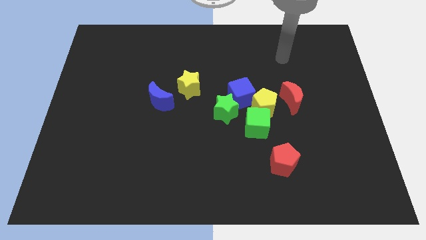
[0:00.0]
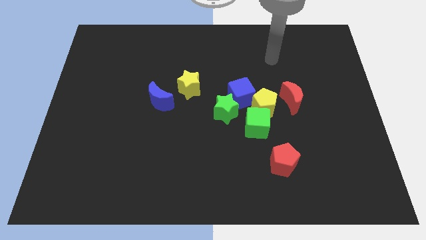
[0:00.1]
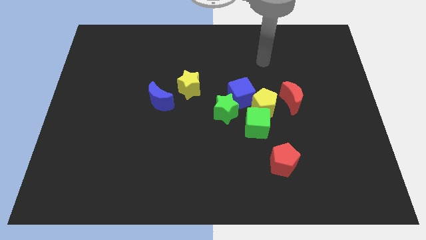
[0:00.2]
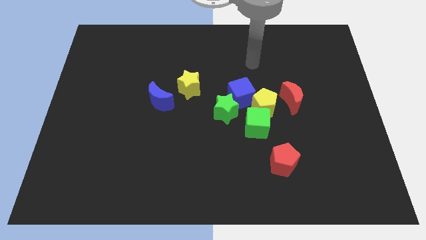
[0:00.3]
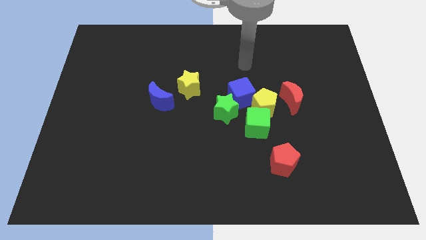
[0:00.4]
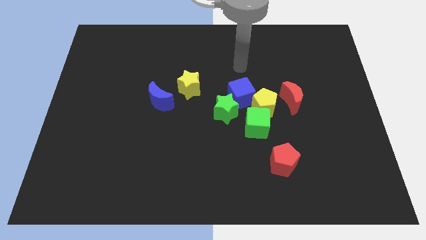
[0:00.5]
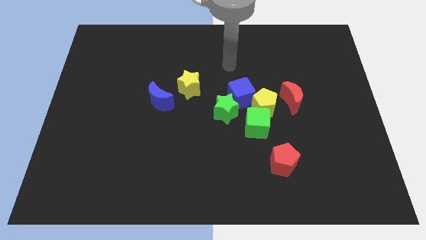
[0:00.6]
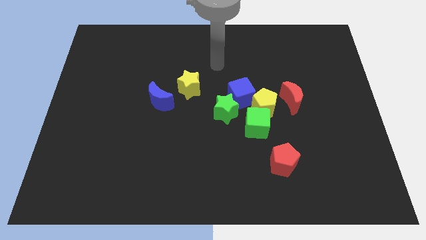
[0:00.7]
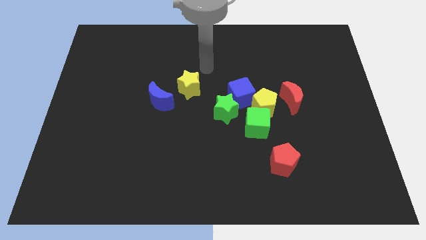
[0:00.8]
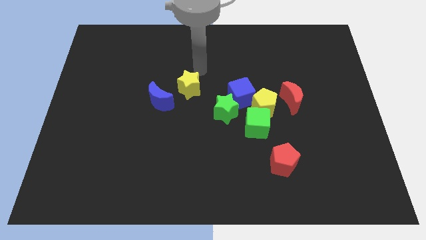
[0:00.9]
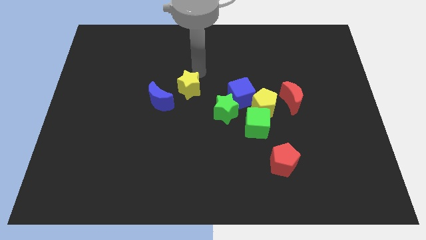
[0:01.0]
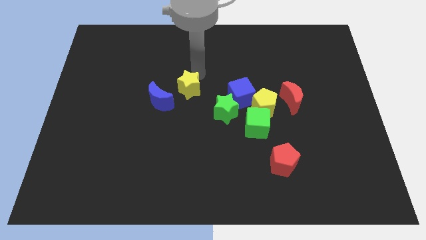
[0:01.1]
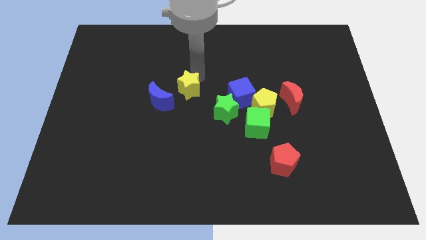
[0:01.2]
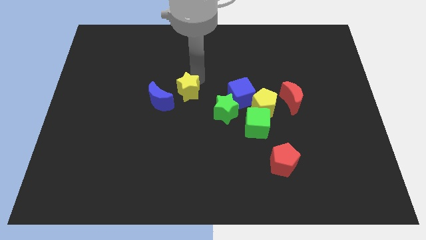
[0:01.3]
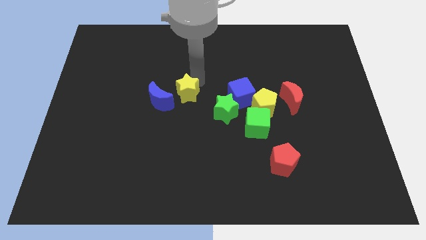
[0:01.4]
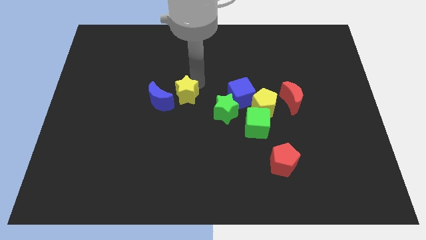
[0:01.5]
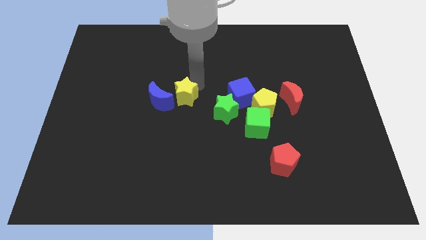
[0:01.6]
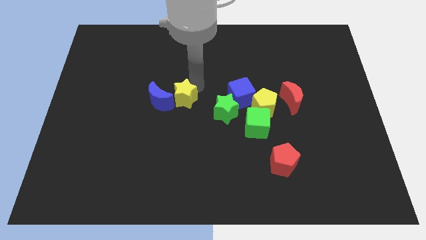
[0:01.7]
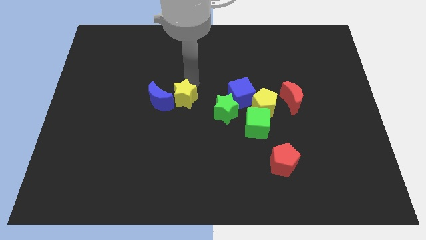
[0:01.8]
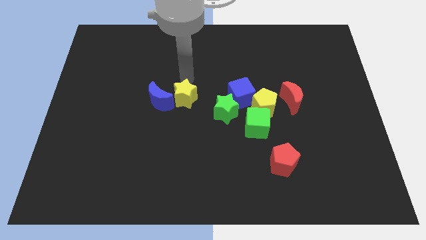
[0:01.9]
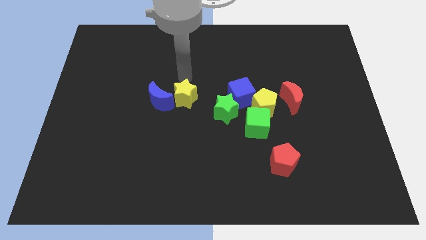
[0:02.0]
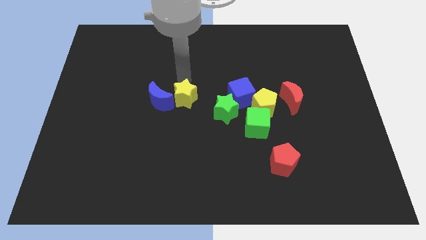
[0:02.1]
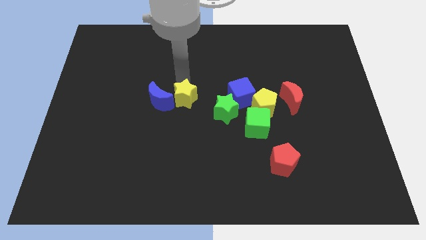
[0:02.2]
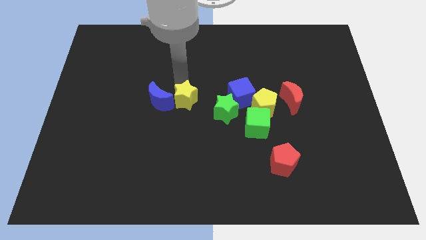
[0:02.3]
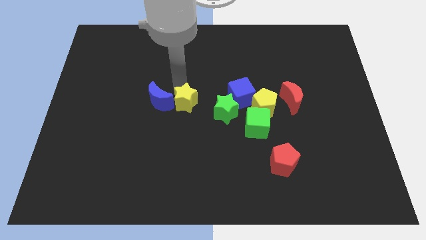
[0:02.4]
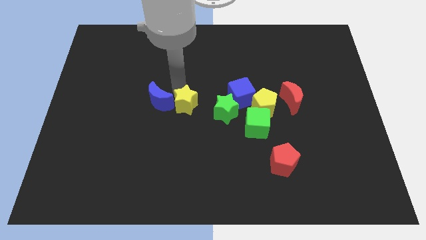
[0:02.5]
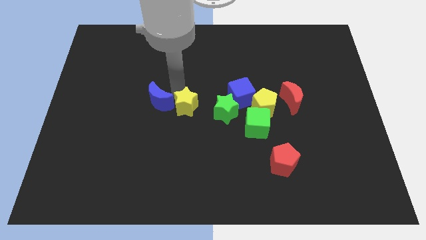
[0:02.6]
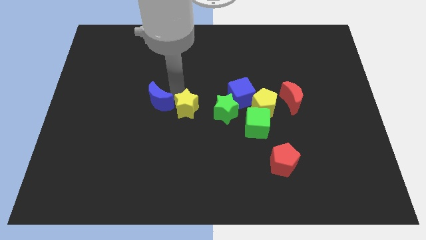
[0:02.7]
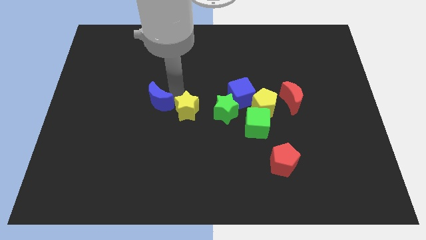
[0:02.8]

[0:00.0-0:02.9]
slide the yellow star somewhat downwards

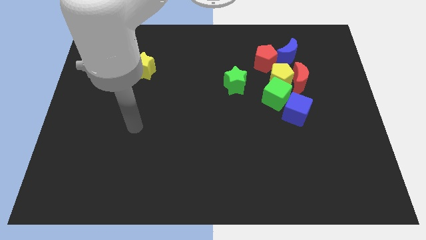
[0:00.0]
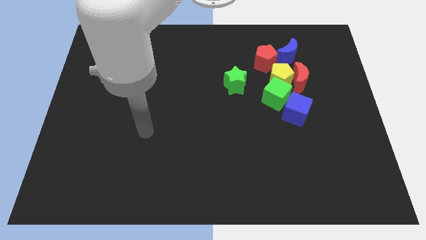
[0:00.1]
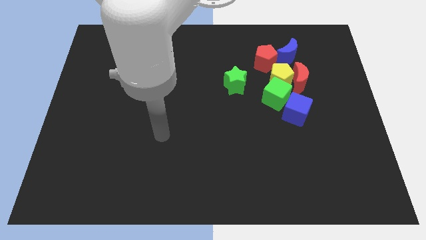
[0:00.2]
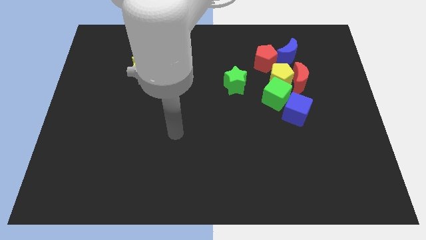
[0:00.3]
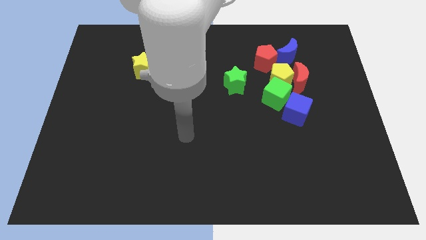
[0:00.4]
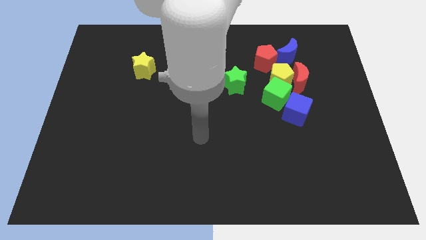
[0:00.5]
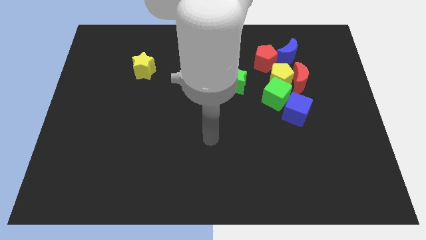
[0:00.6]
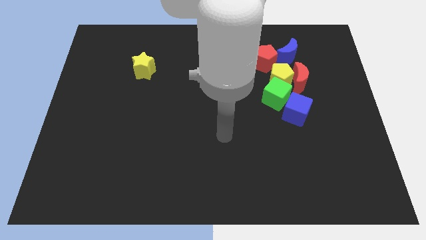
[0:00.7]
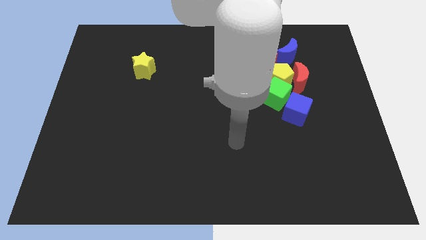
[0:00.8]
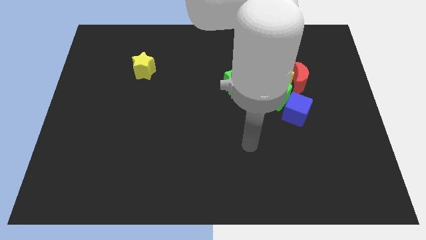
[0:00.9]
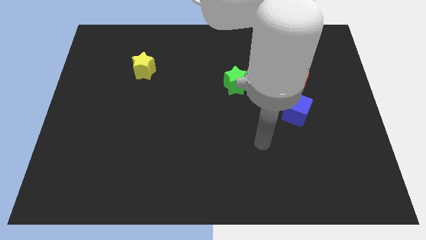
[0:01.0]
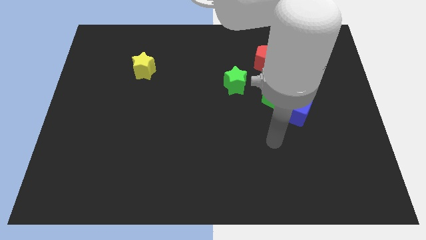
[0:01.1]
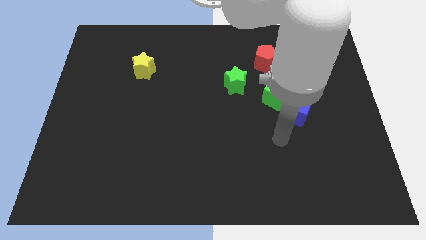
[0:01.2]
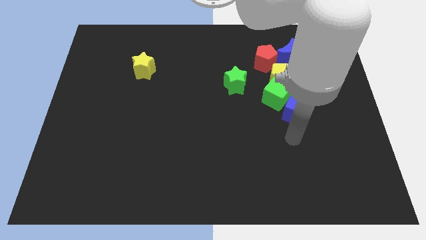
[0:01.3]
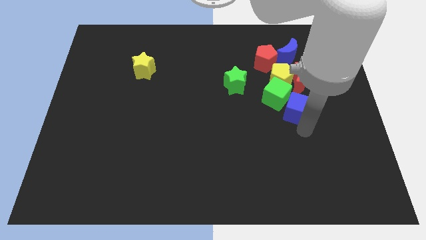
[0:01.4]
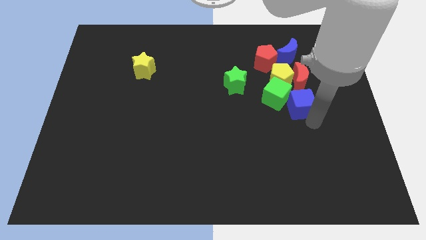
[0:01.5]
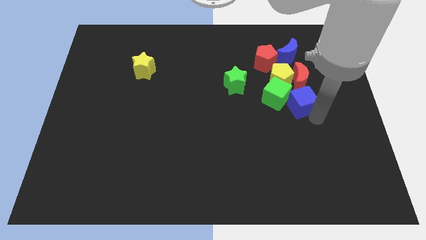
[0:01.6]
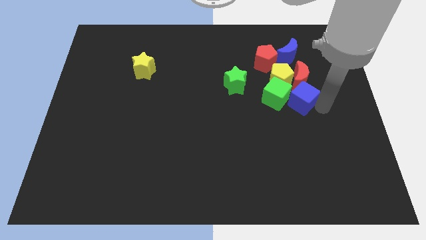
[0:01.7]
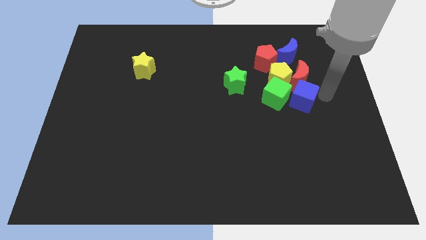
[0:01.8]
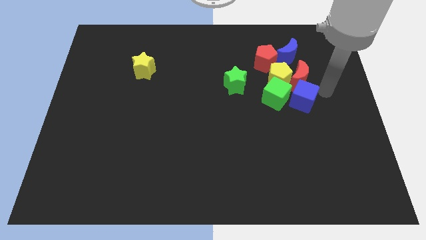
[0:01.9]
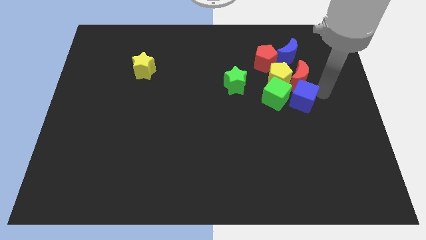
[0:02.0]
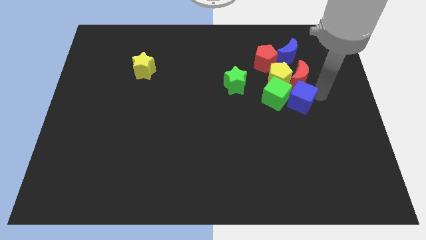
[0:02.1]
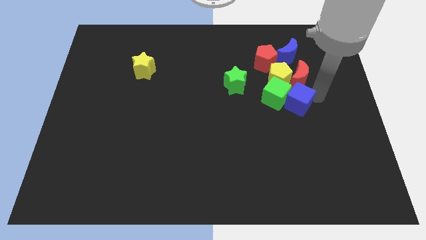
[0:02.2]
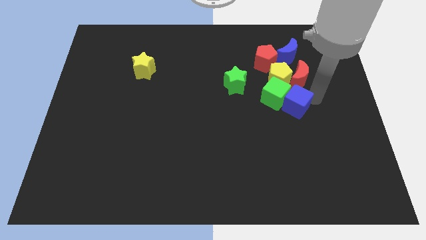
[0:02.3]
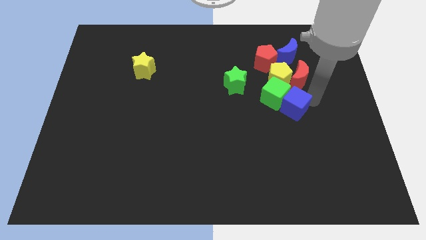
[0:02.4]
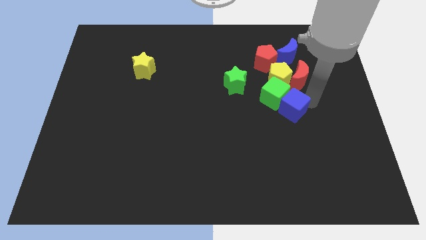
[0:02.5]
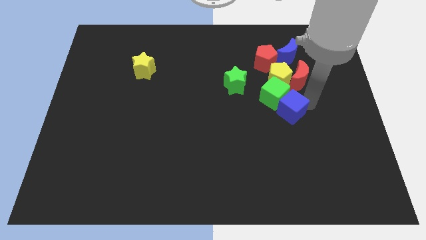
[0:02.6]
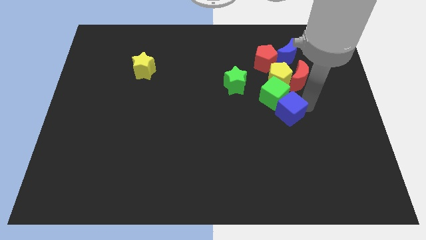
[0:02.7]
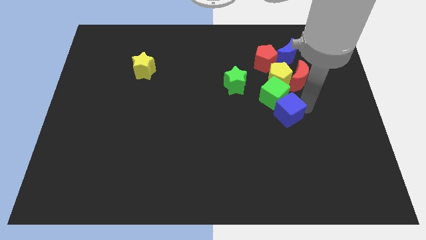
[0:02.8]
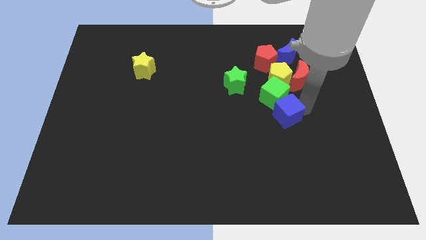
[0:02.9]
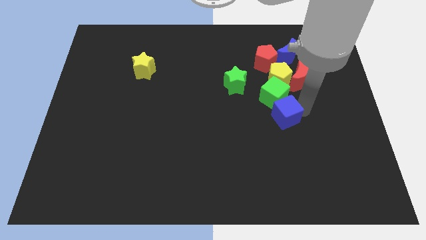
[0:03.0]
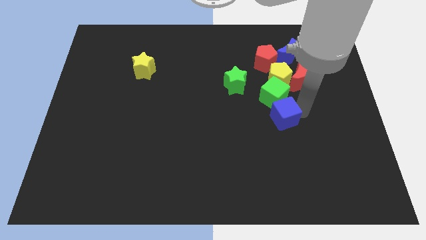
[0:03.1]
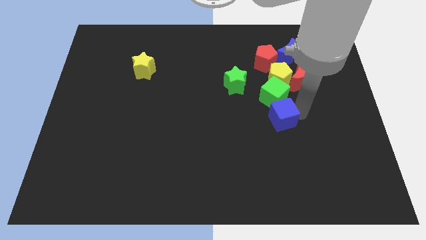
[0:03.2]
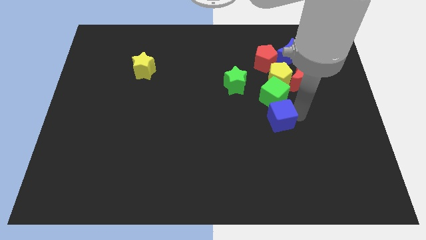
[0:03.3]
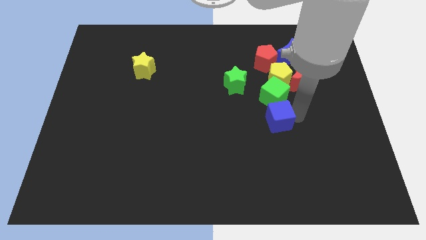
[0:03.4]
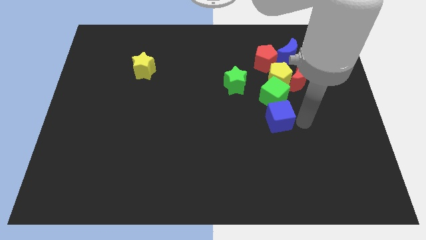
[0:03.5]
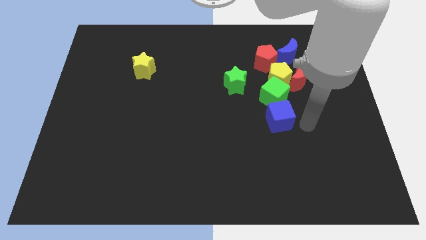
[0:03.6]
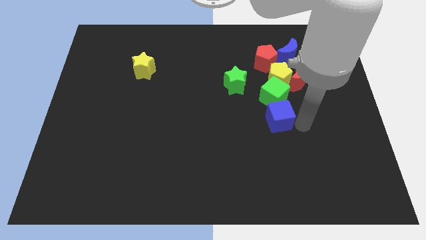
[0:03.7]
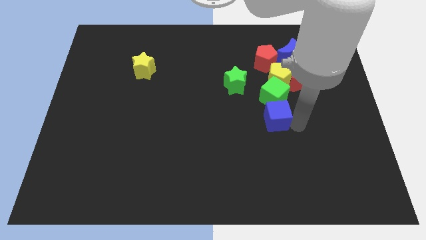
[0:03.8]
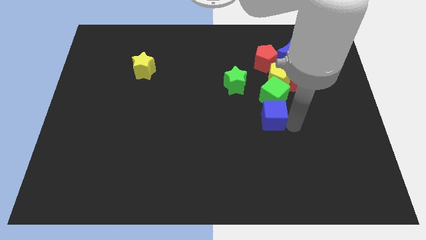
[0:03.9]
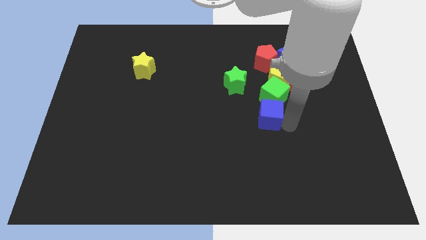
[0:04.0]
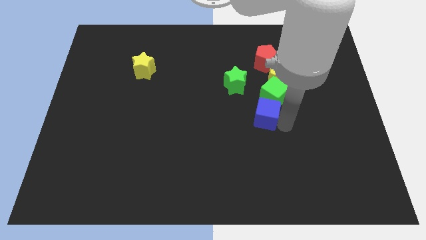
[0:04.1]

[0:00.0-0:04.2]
slide the blue cube somewhat left

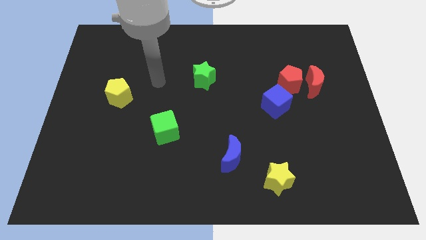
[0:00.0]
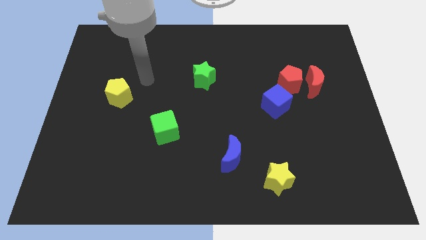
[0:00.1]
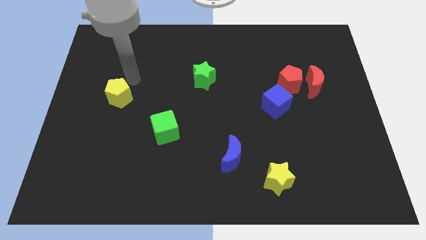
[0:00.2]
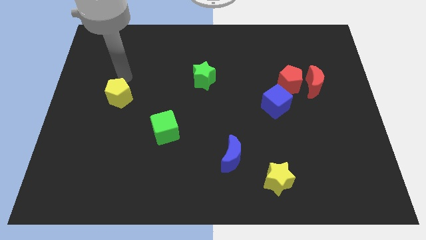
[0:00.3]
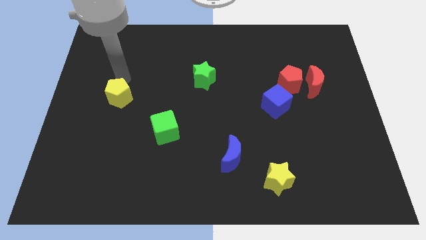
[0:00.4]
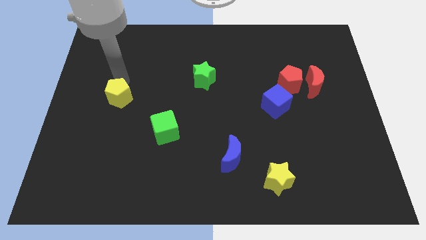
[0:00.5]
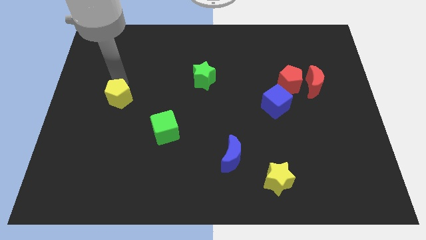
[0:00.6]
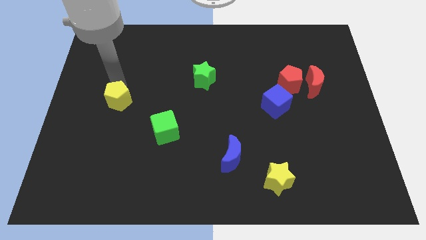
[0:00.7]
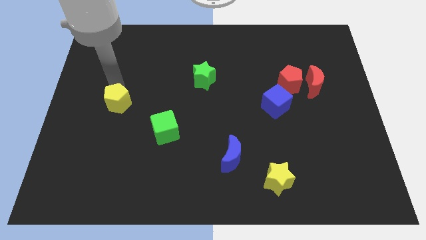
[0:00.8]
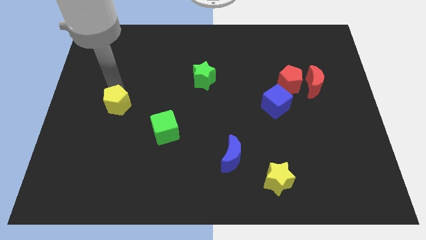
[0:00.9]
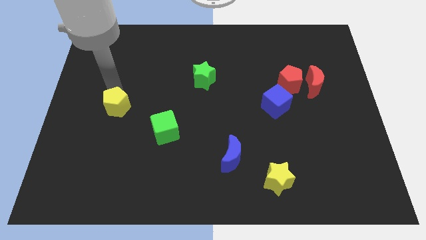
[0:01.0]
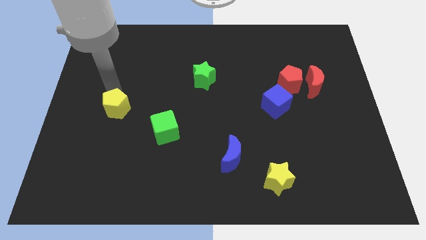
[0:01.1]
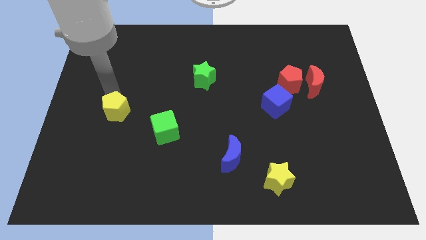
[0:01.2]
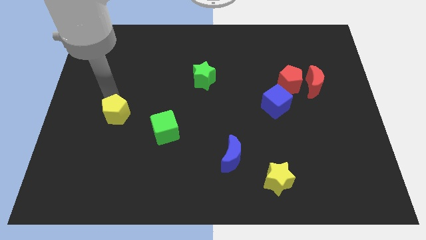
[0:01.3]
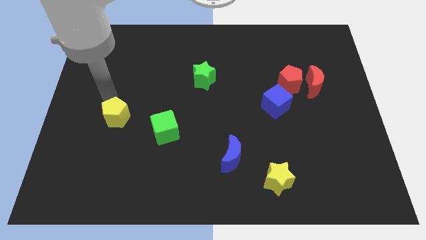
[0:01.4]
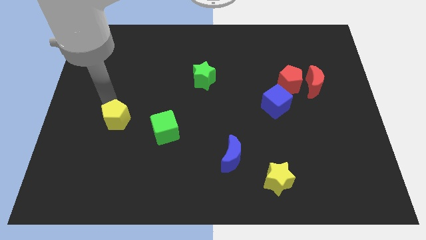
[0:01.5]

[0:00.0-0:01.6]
slide the yellow pentagon slightly down
